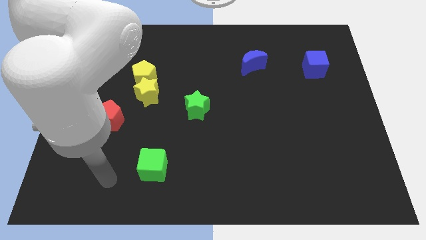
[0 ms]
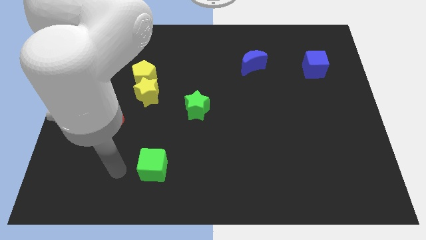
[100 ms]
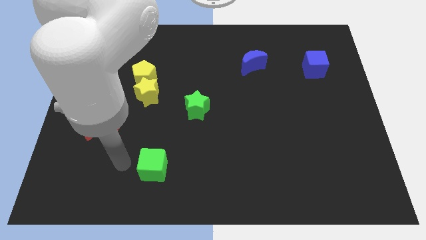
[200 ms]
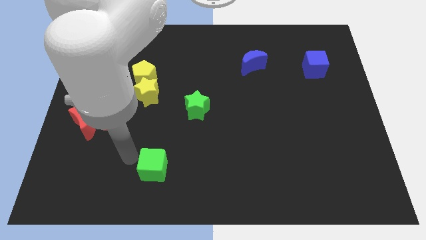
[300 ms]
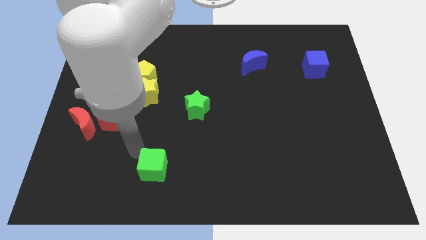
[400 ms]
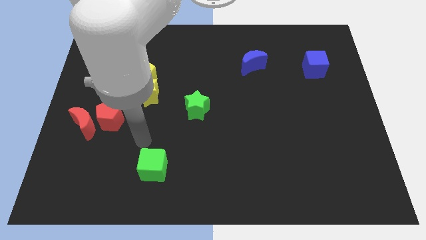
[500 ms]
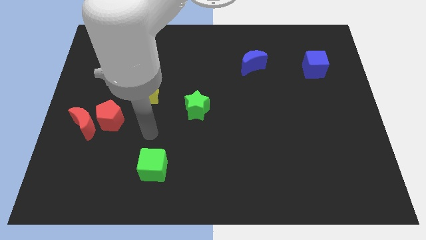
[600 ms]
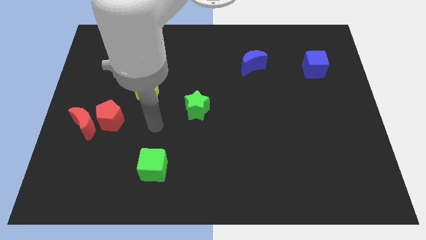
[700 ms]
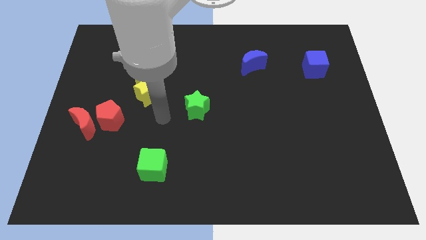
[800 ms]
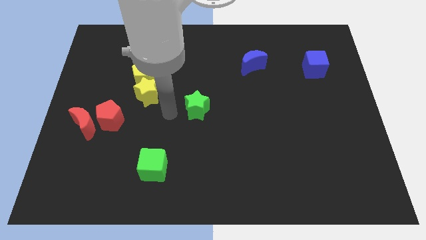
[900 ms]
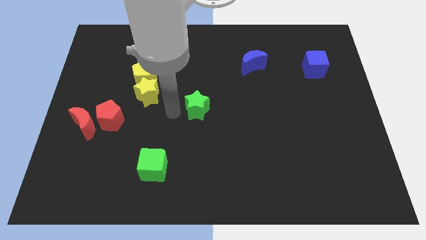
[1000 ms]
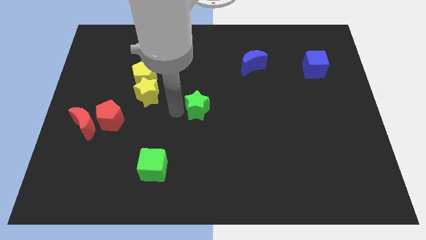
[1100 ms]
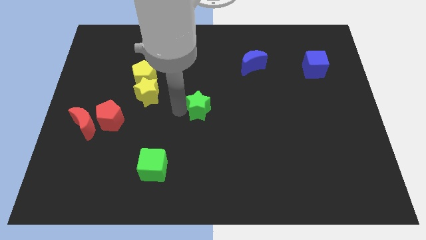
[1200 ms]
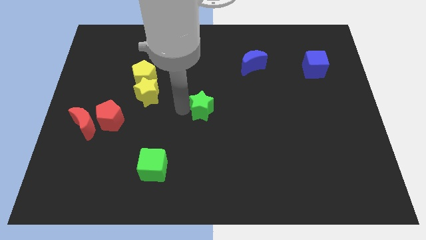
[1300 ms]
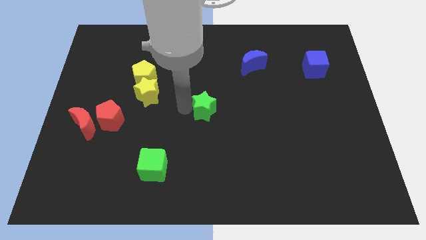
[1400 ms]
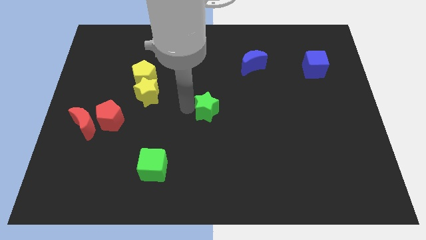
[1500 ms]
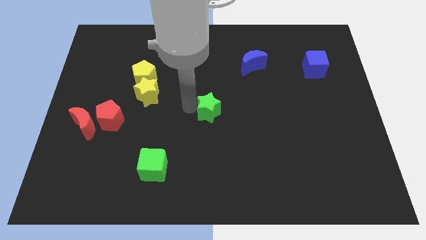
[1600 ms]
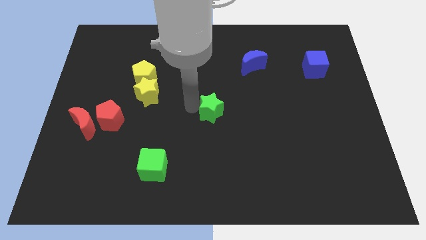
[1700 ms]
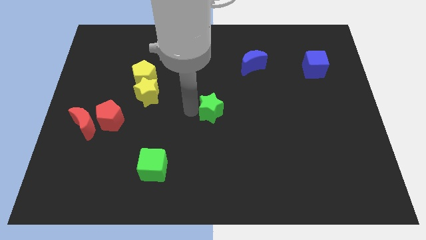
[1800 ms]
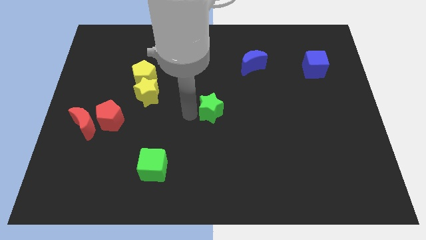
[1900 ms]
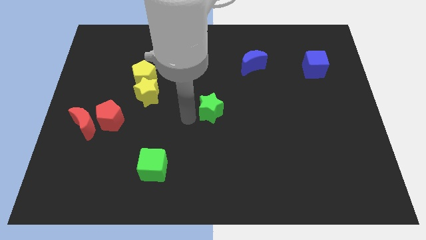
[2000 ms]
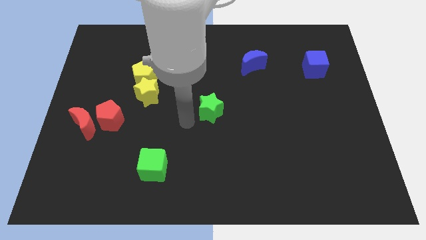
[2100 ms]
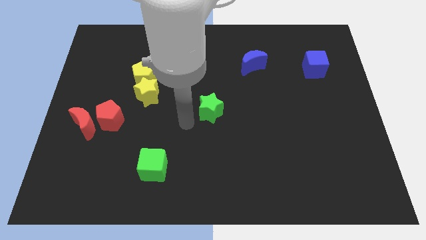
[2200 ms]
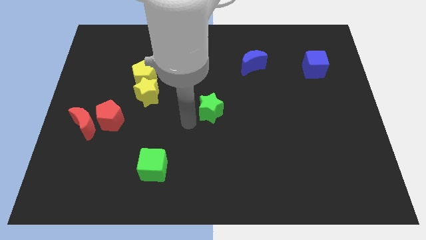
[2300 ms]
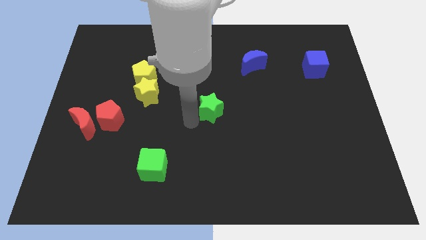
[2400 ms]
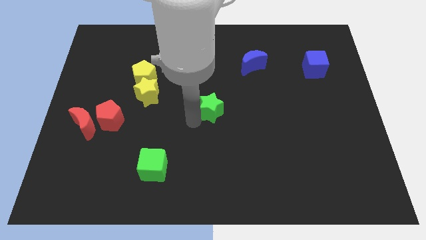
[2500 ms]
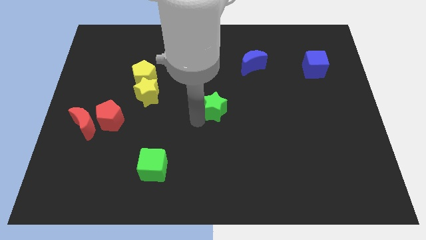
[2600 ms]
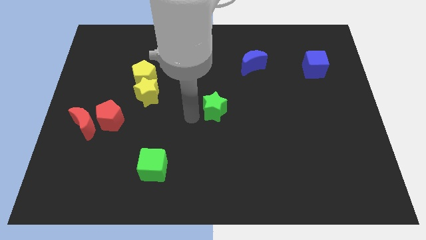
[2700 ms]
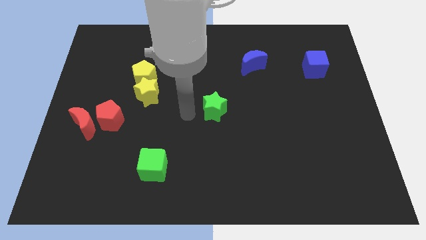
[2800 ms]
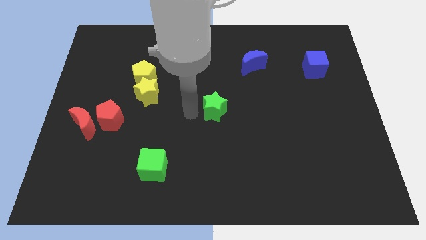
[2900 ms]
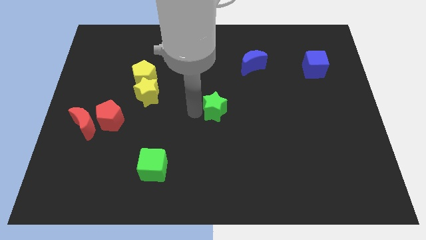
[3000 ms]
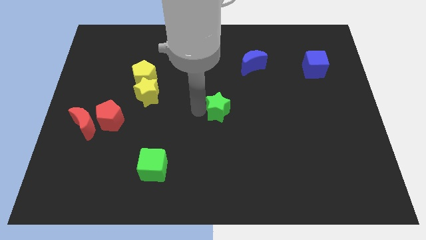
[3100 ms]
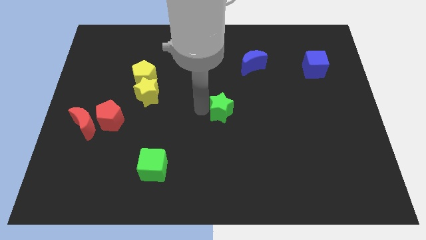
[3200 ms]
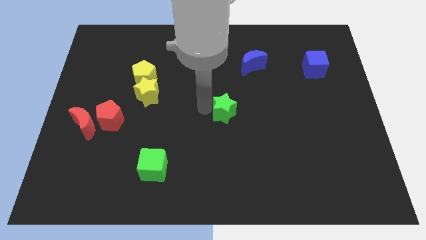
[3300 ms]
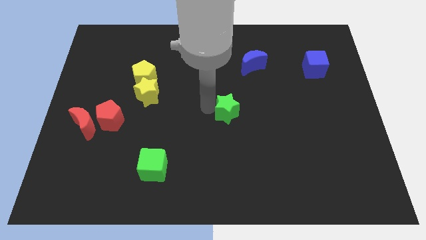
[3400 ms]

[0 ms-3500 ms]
move the green star to the right a little

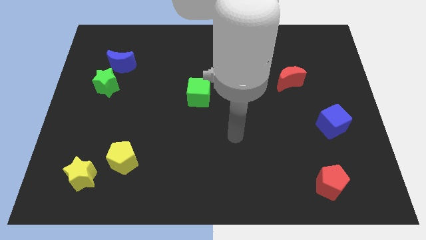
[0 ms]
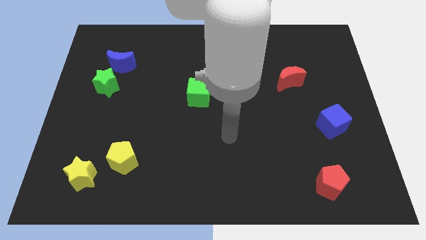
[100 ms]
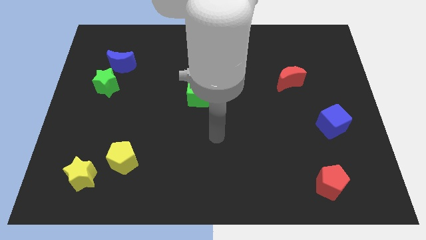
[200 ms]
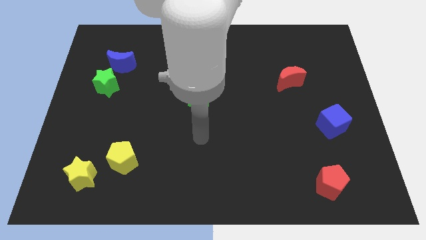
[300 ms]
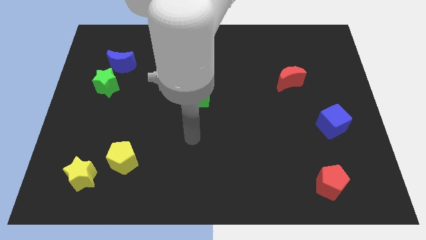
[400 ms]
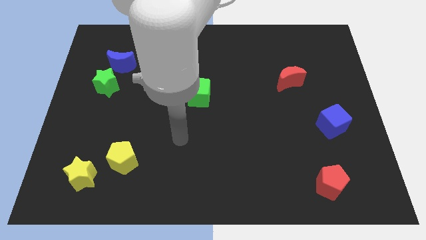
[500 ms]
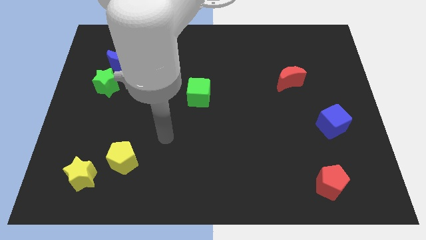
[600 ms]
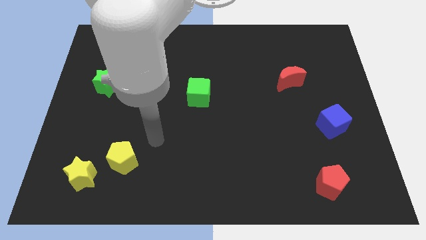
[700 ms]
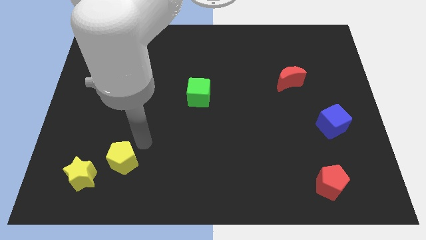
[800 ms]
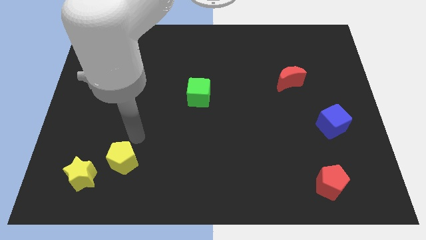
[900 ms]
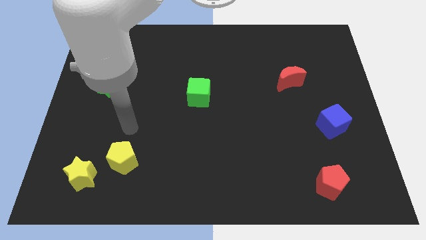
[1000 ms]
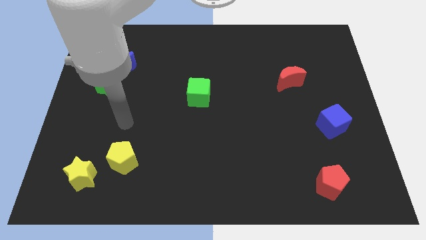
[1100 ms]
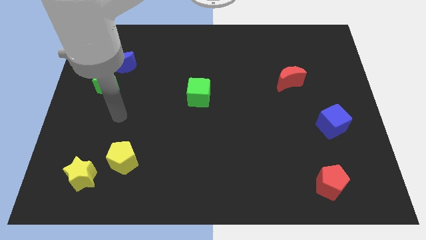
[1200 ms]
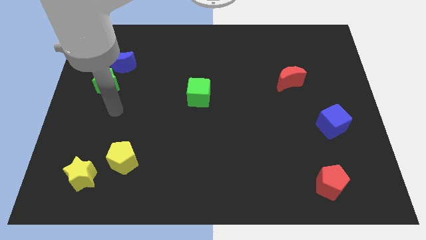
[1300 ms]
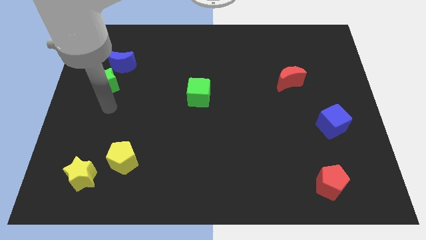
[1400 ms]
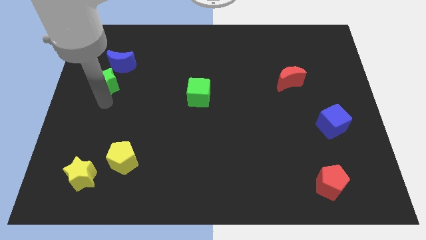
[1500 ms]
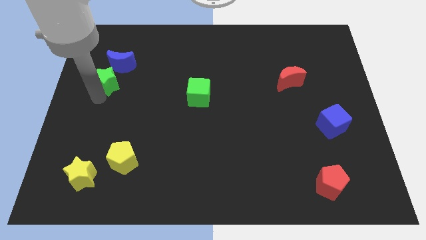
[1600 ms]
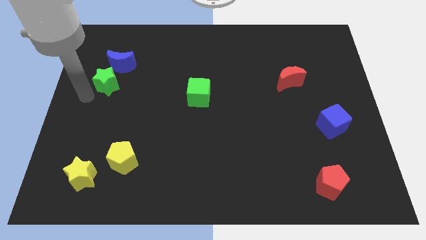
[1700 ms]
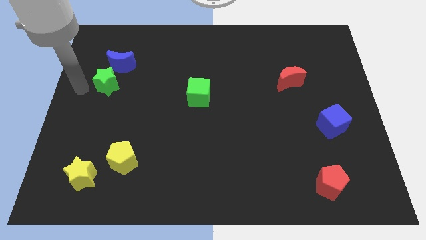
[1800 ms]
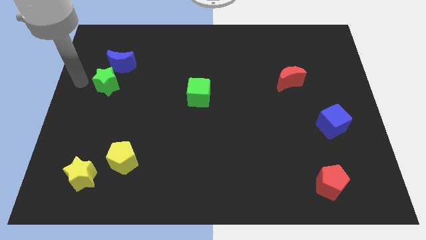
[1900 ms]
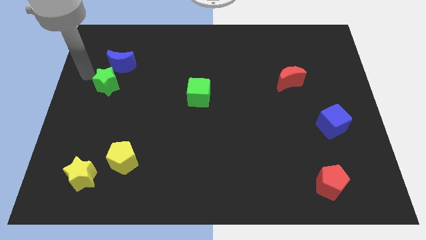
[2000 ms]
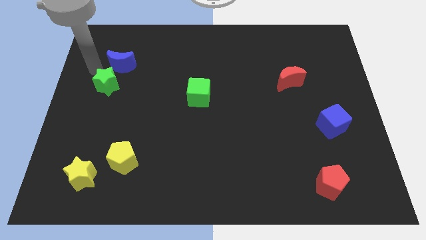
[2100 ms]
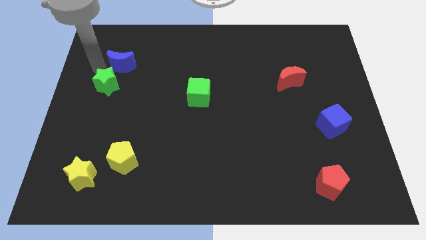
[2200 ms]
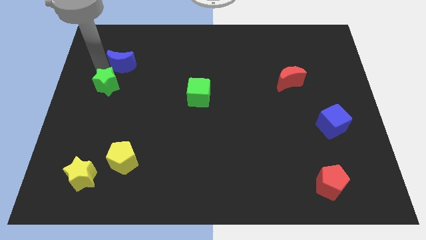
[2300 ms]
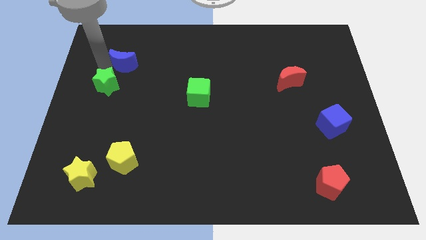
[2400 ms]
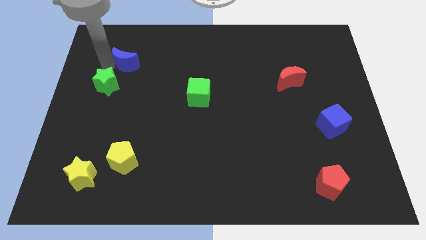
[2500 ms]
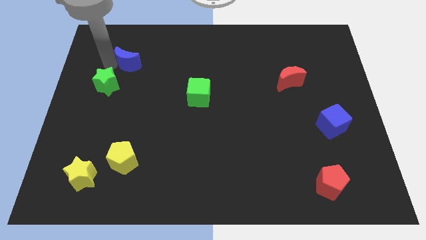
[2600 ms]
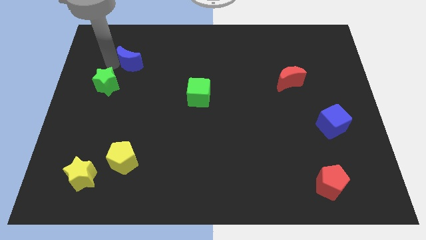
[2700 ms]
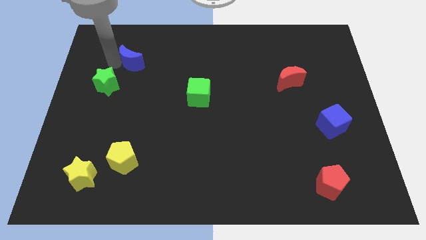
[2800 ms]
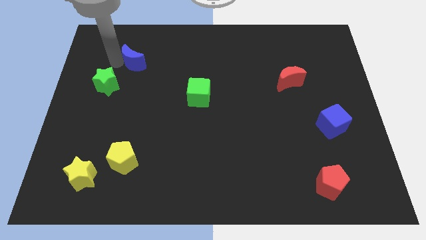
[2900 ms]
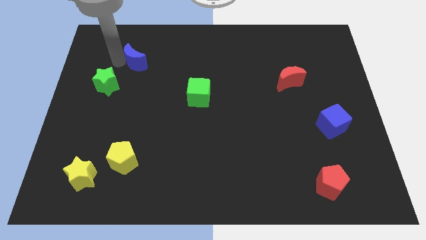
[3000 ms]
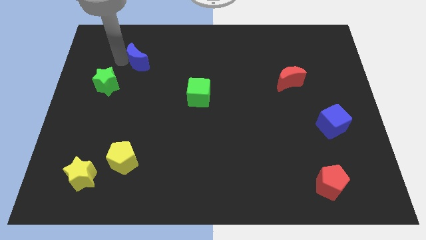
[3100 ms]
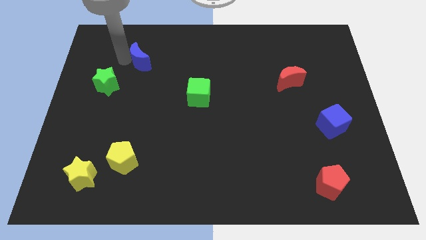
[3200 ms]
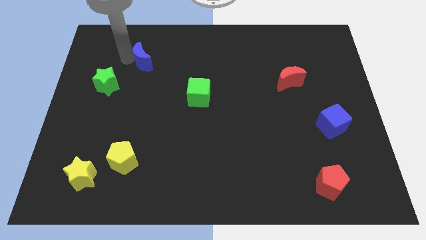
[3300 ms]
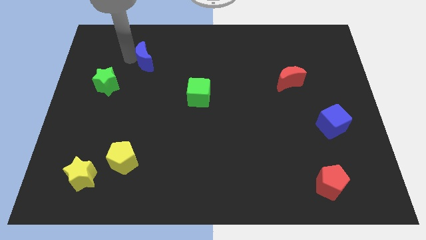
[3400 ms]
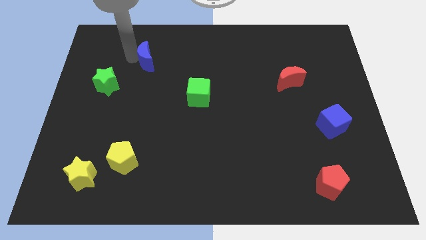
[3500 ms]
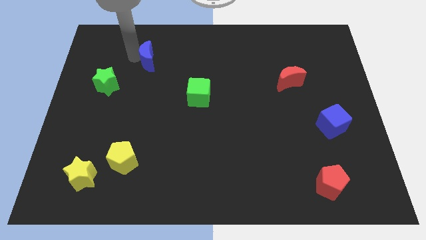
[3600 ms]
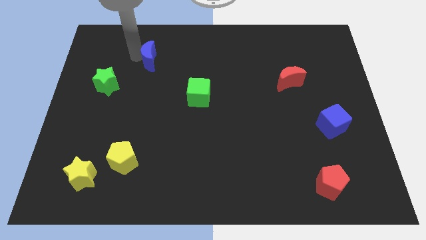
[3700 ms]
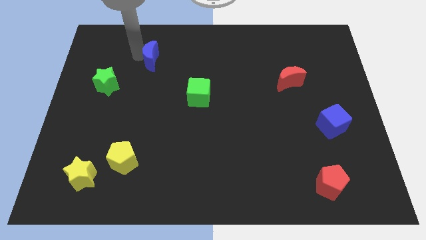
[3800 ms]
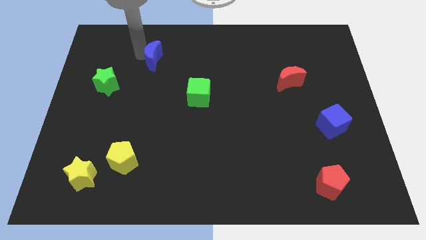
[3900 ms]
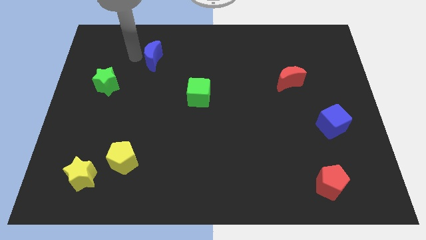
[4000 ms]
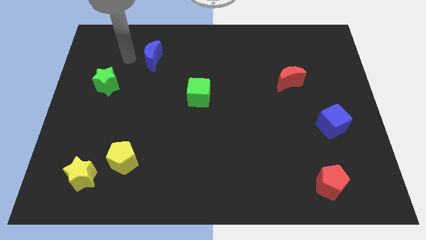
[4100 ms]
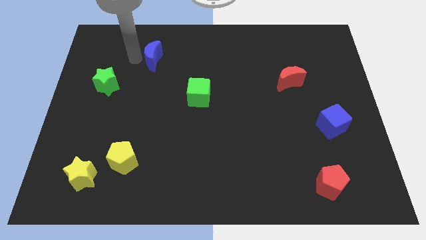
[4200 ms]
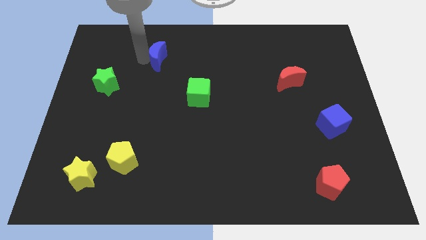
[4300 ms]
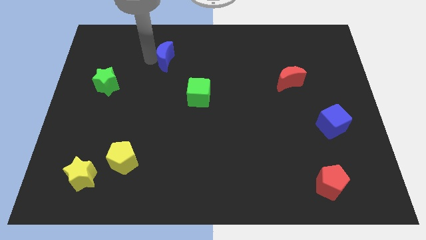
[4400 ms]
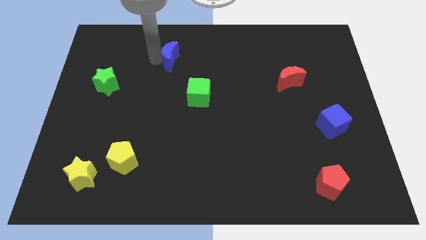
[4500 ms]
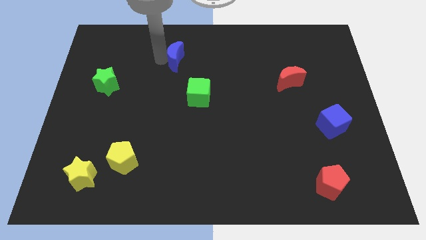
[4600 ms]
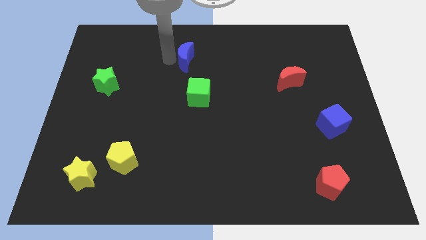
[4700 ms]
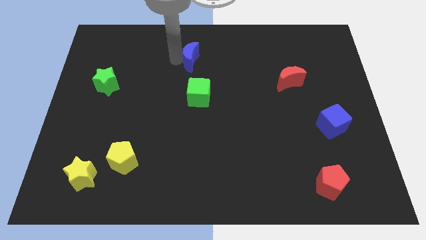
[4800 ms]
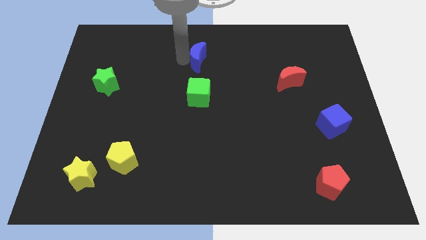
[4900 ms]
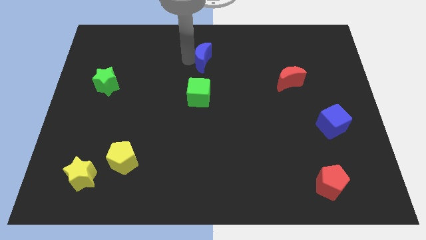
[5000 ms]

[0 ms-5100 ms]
move the blue moon to the right
